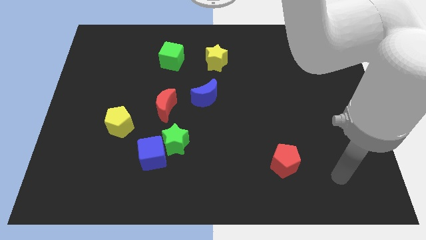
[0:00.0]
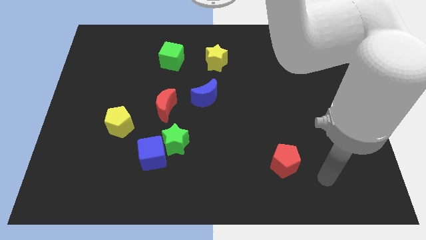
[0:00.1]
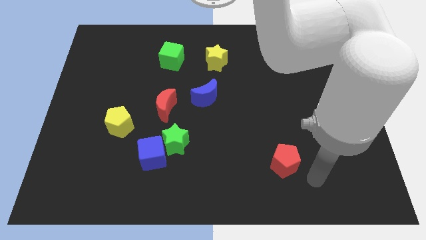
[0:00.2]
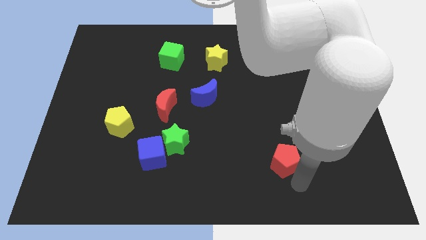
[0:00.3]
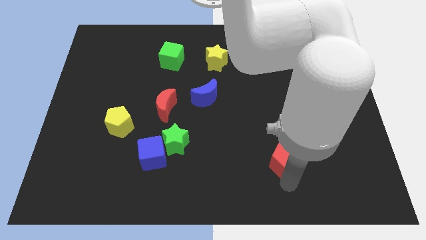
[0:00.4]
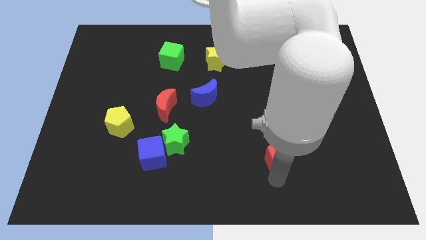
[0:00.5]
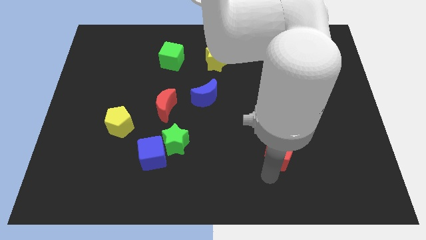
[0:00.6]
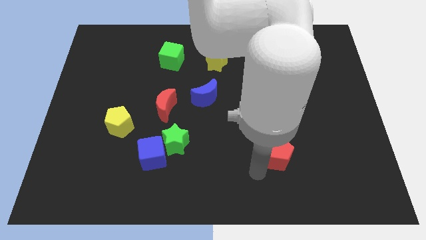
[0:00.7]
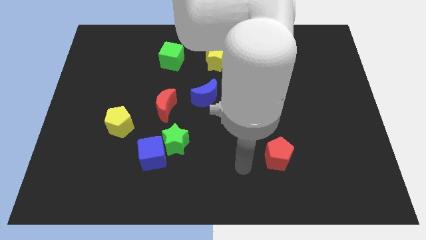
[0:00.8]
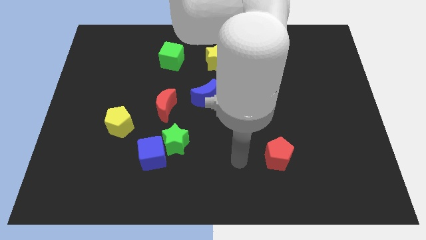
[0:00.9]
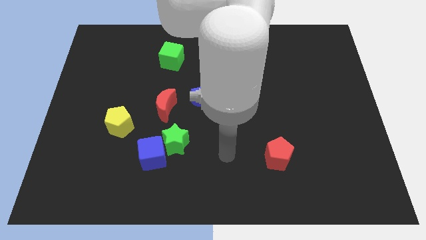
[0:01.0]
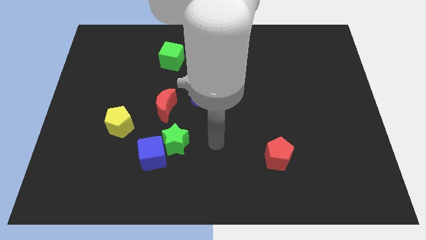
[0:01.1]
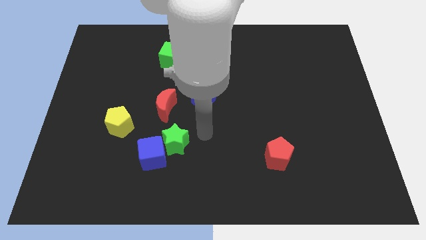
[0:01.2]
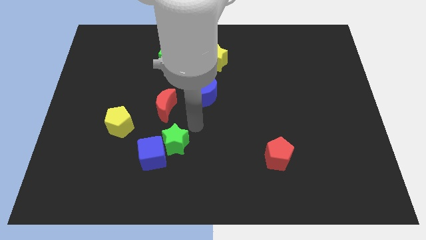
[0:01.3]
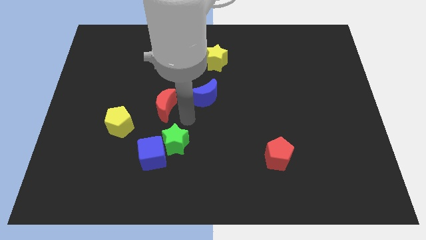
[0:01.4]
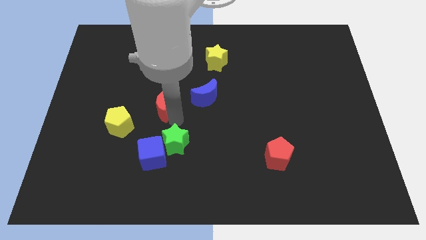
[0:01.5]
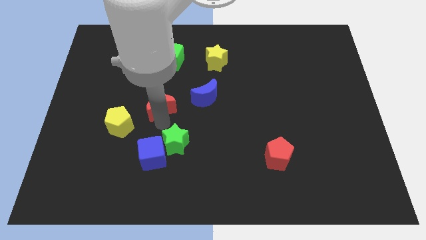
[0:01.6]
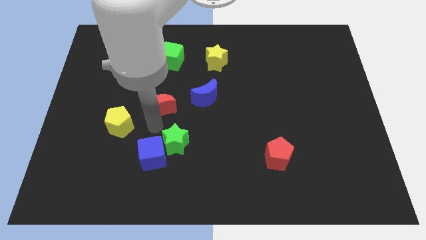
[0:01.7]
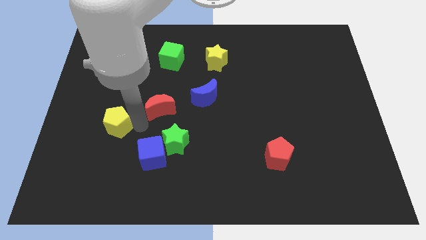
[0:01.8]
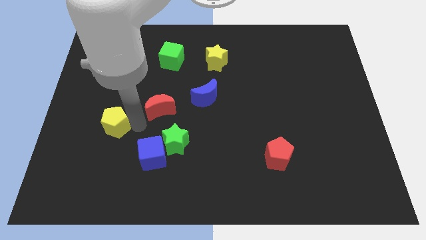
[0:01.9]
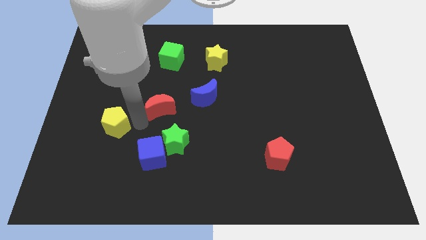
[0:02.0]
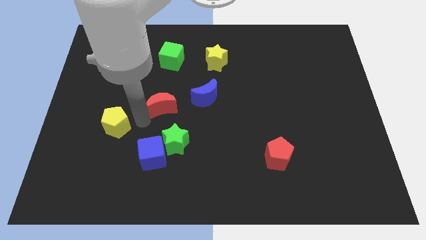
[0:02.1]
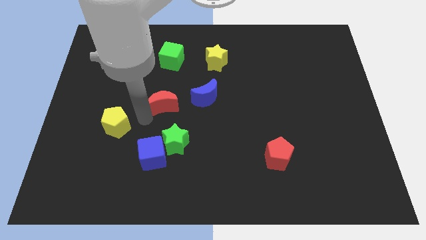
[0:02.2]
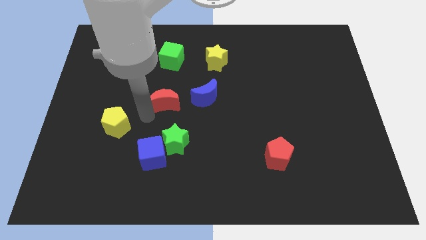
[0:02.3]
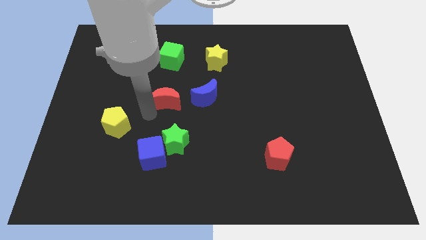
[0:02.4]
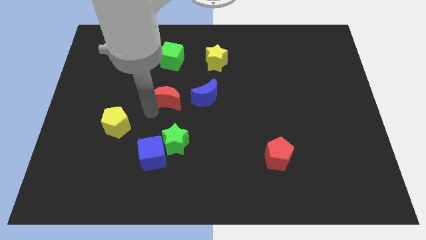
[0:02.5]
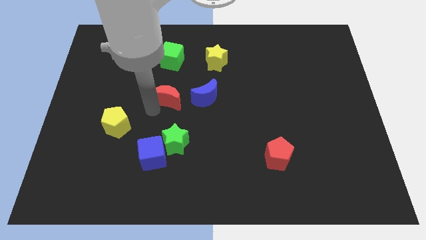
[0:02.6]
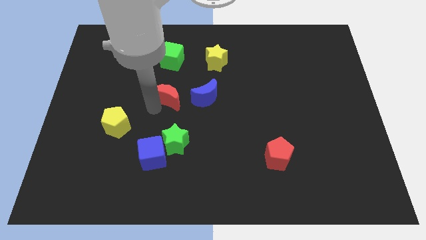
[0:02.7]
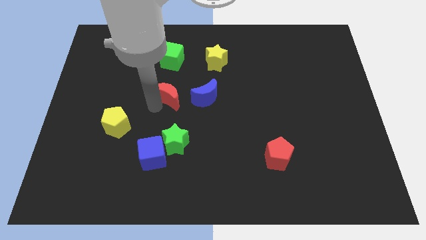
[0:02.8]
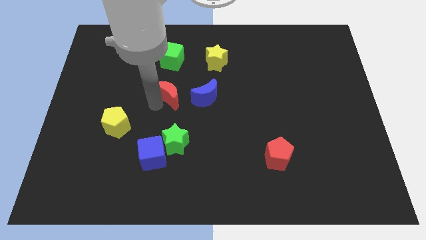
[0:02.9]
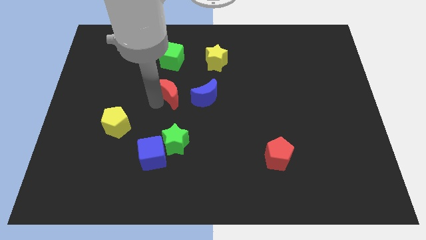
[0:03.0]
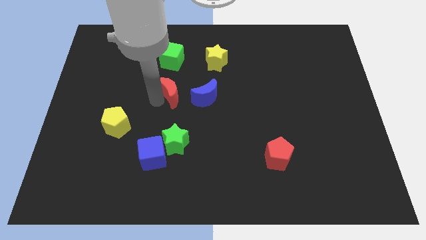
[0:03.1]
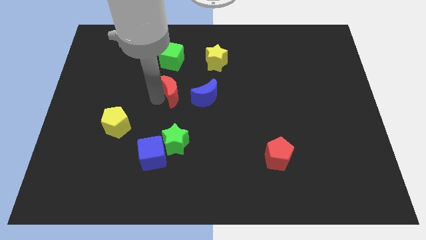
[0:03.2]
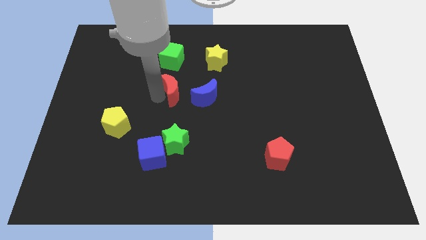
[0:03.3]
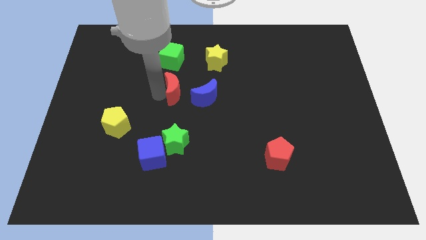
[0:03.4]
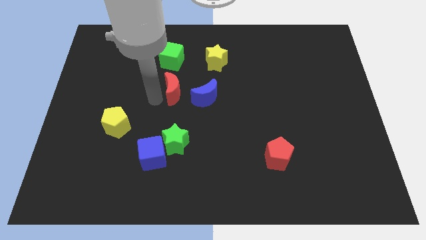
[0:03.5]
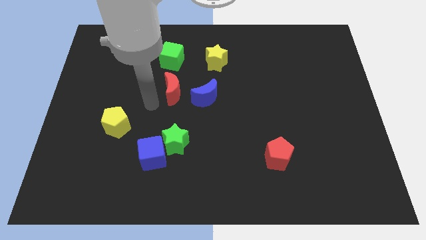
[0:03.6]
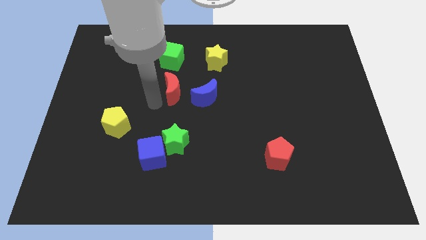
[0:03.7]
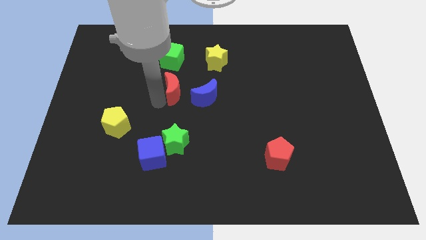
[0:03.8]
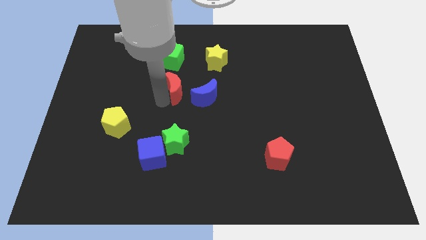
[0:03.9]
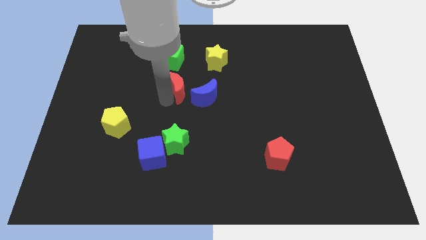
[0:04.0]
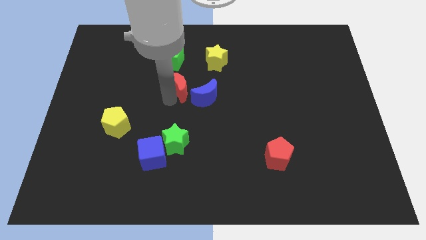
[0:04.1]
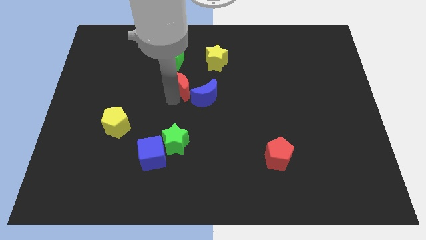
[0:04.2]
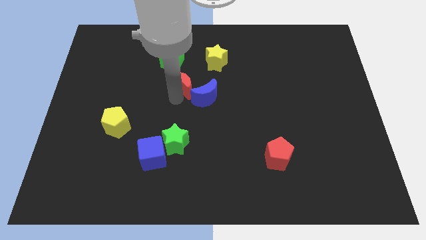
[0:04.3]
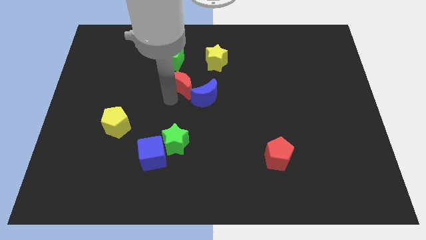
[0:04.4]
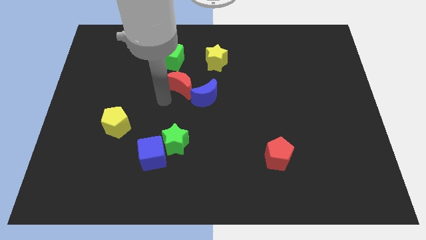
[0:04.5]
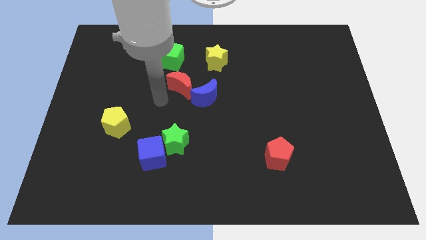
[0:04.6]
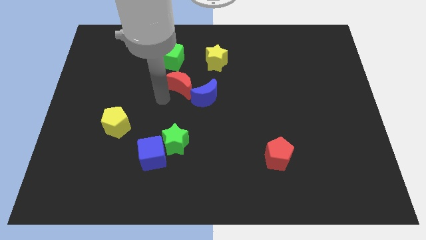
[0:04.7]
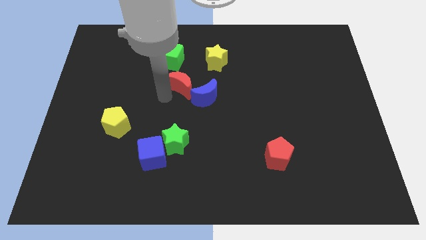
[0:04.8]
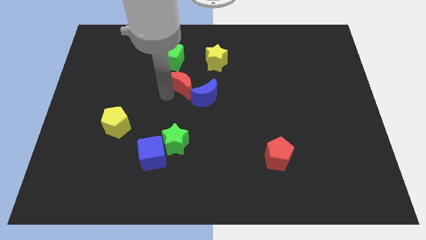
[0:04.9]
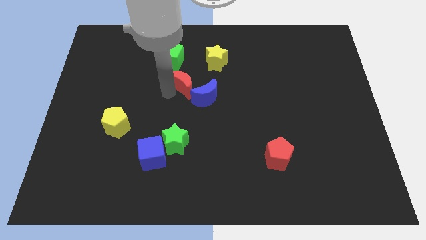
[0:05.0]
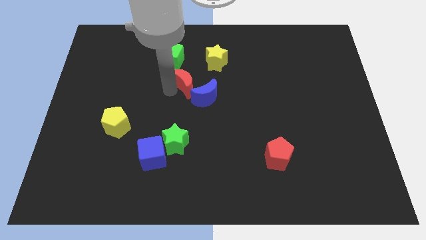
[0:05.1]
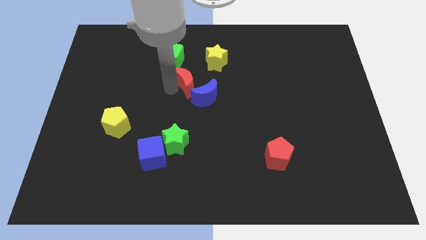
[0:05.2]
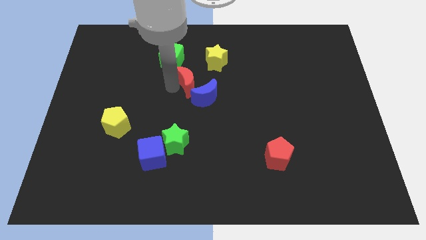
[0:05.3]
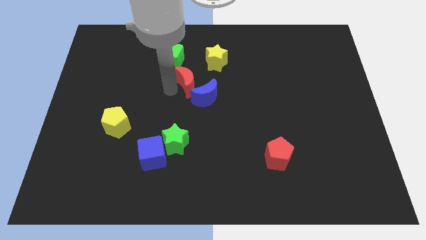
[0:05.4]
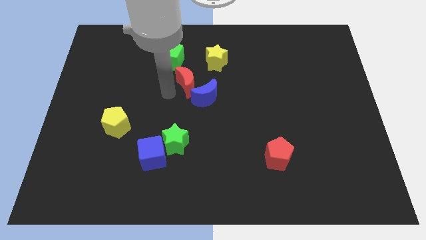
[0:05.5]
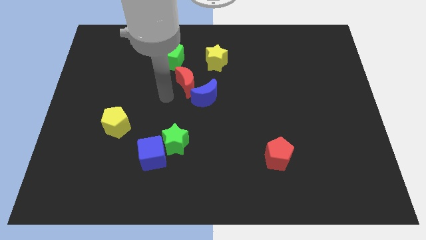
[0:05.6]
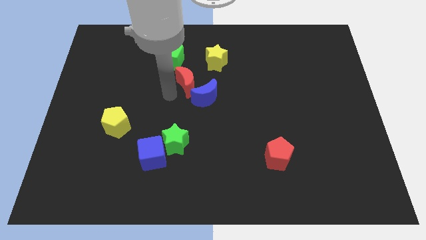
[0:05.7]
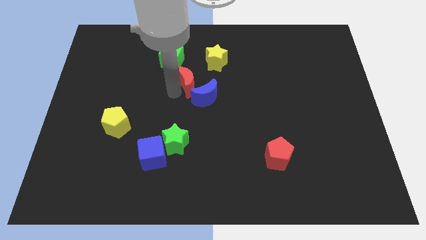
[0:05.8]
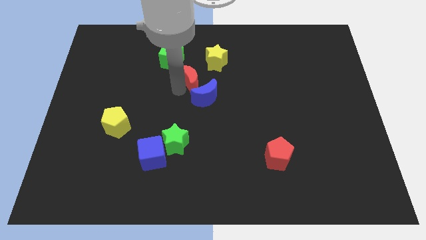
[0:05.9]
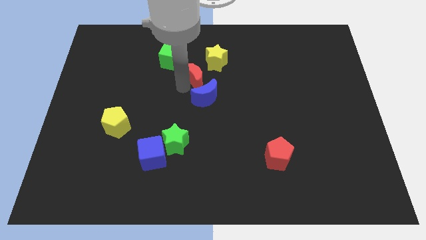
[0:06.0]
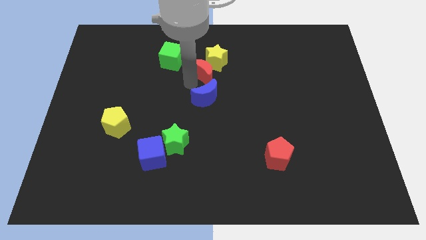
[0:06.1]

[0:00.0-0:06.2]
put the red moon towards the yellow star
